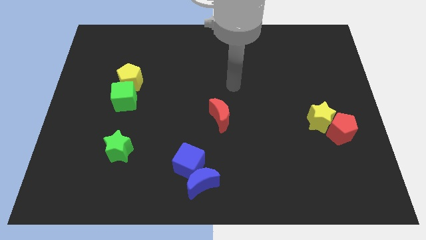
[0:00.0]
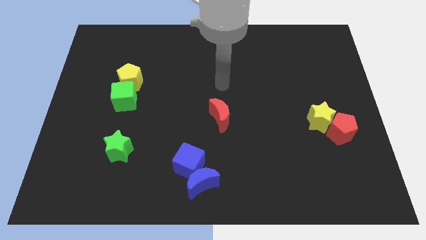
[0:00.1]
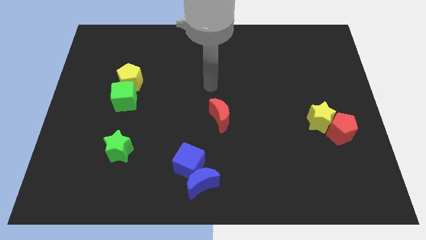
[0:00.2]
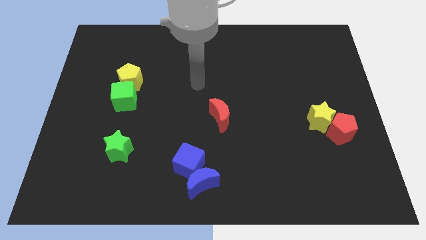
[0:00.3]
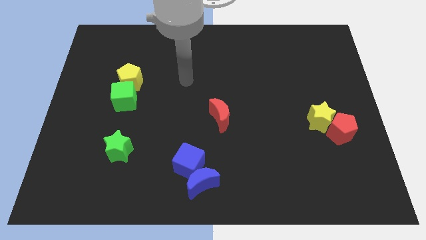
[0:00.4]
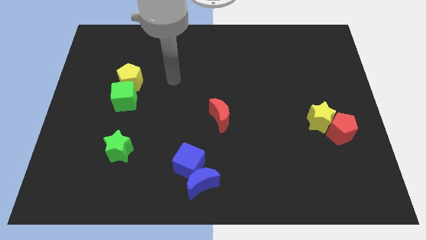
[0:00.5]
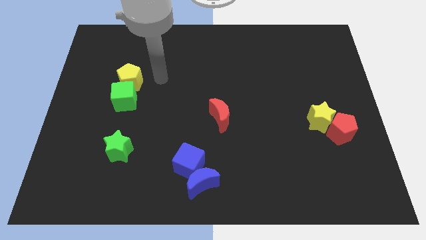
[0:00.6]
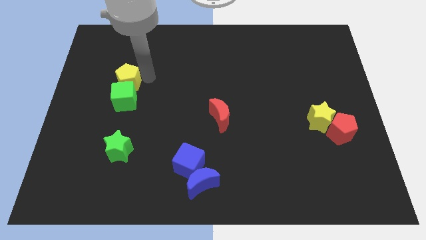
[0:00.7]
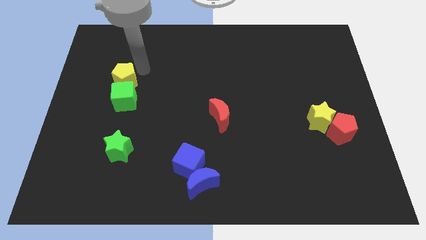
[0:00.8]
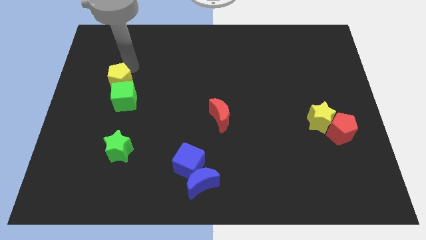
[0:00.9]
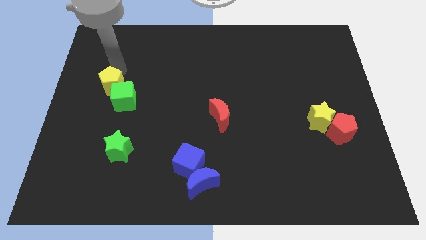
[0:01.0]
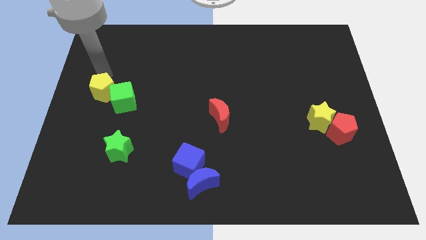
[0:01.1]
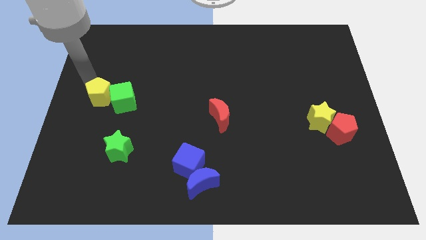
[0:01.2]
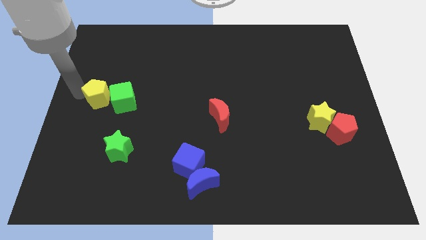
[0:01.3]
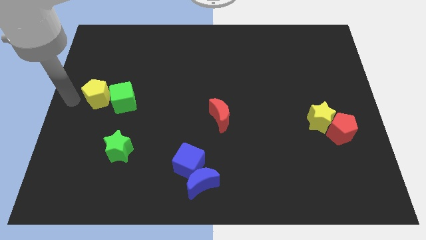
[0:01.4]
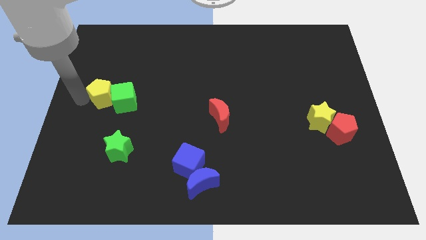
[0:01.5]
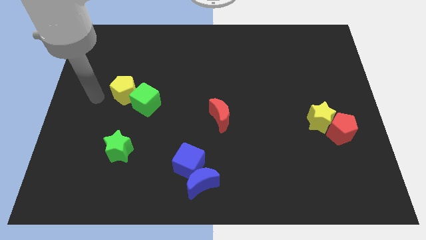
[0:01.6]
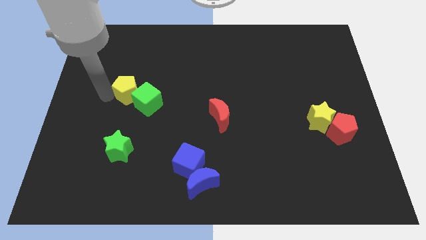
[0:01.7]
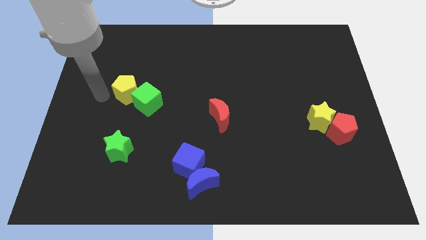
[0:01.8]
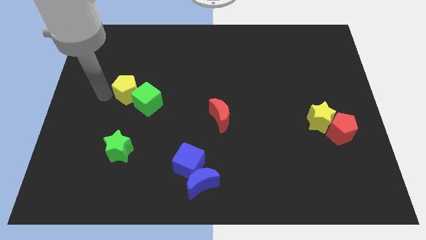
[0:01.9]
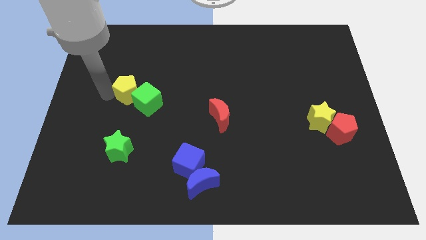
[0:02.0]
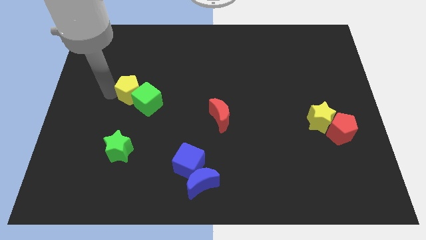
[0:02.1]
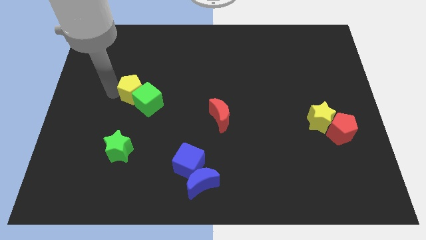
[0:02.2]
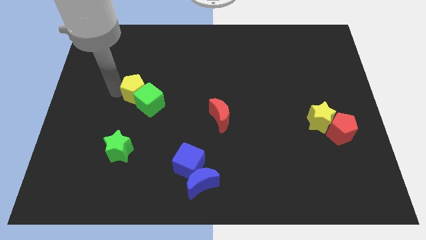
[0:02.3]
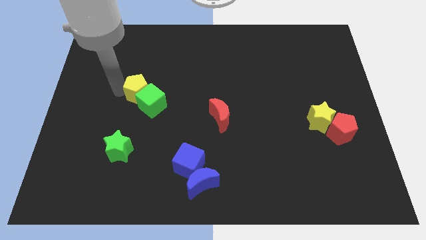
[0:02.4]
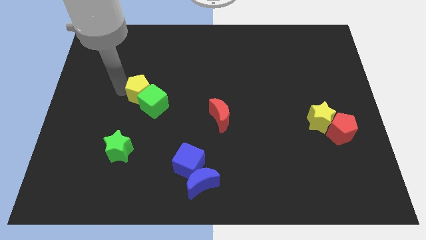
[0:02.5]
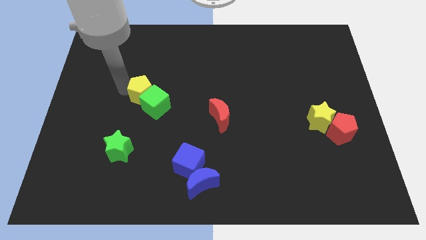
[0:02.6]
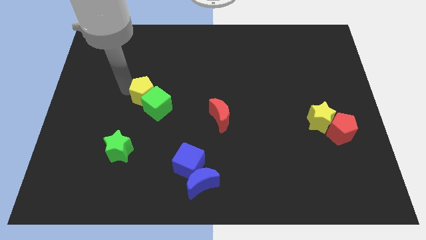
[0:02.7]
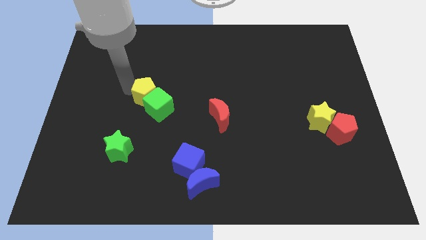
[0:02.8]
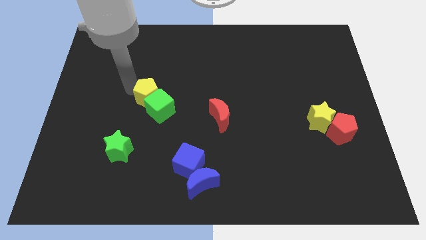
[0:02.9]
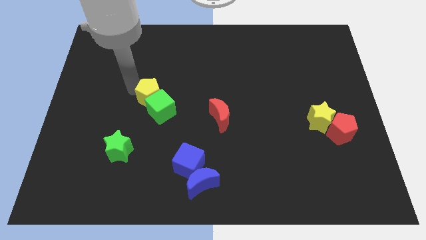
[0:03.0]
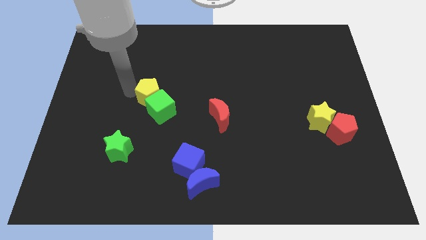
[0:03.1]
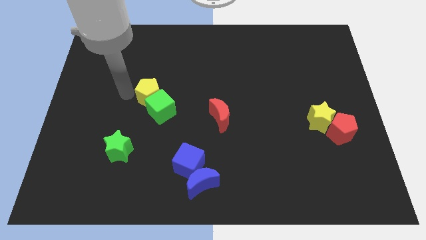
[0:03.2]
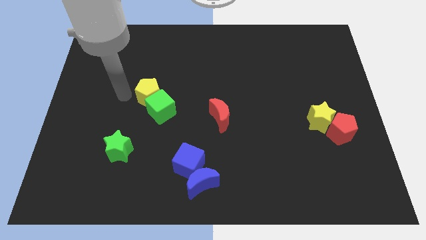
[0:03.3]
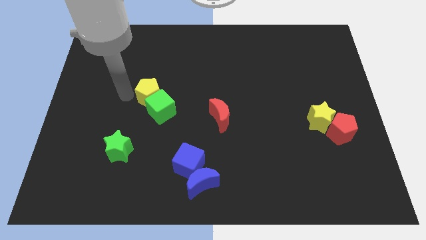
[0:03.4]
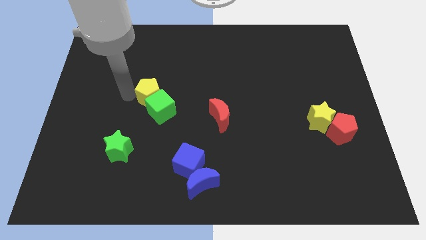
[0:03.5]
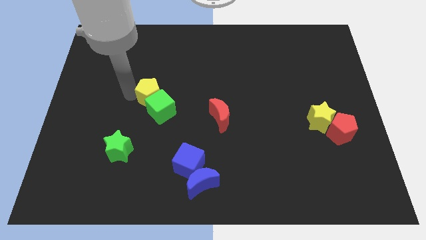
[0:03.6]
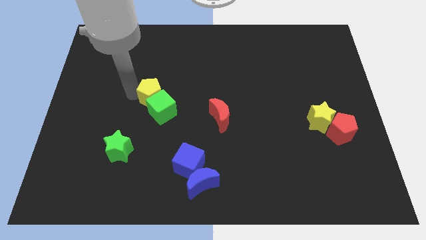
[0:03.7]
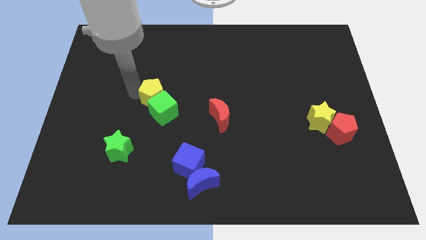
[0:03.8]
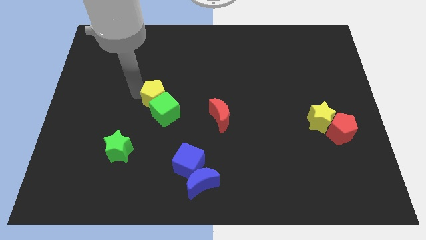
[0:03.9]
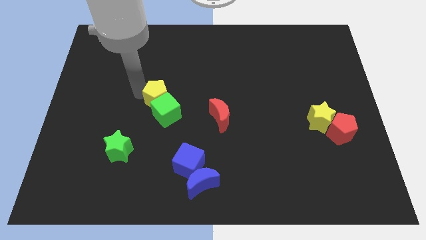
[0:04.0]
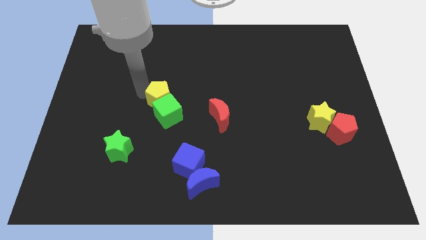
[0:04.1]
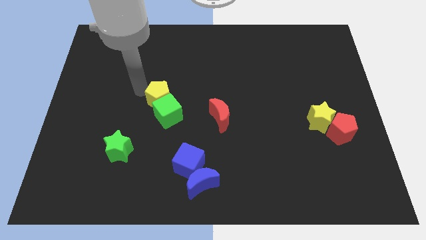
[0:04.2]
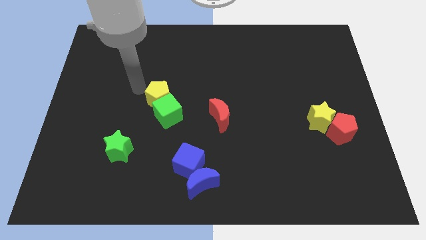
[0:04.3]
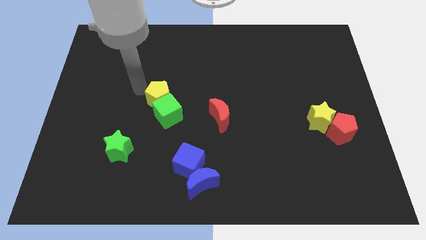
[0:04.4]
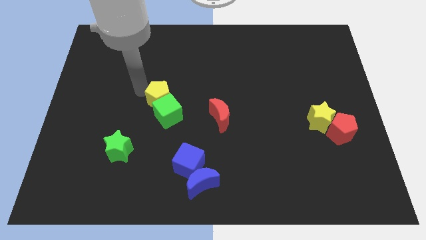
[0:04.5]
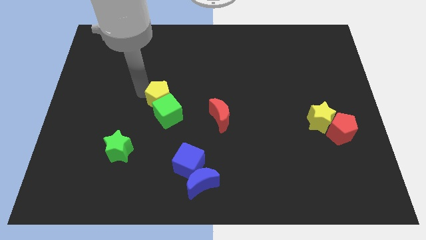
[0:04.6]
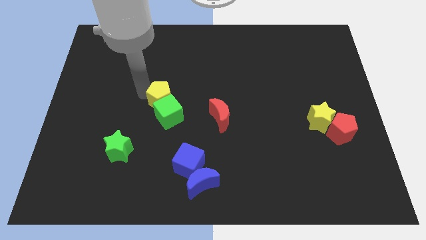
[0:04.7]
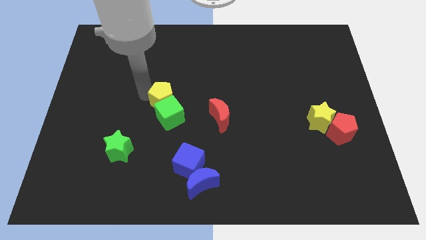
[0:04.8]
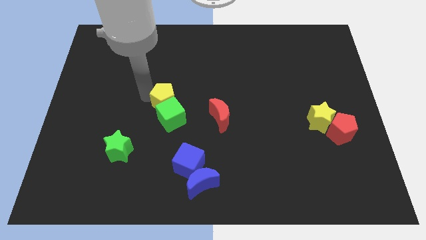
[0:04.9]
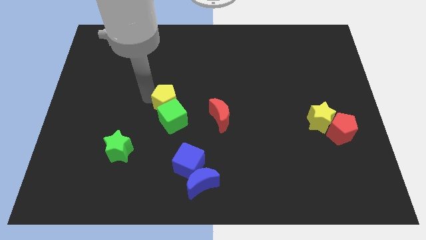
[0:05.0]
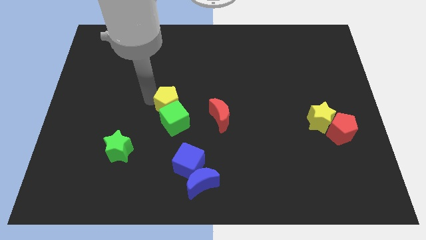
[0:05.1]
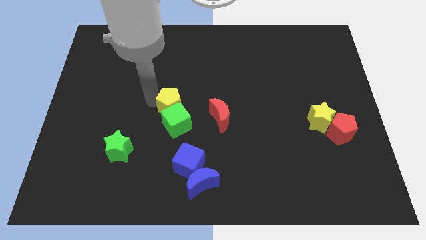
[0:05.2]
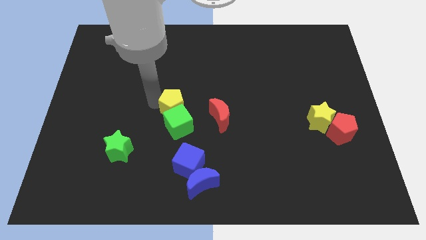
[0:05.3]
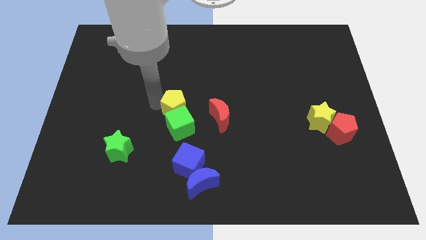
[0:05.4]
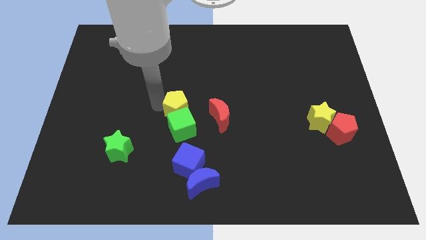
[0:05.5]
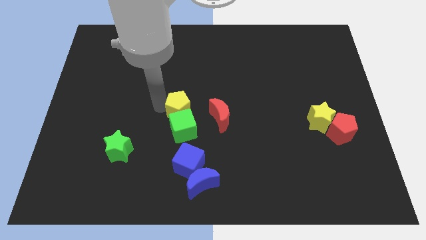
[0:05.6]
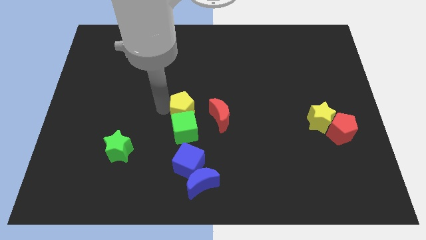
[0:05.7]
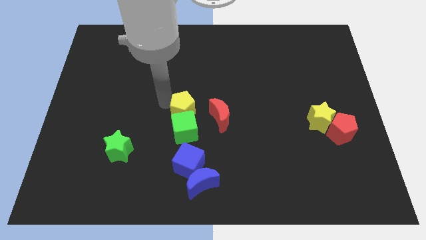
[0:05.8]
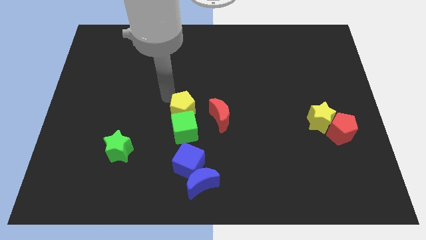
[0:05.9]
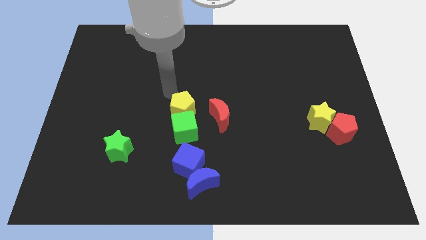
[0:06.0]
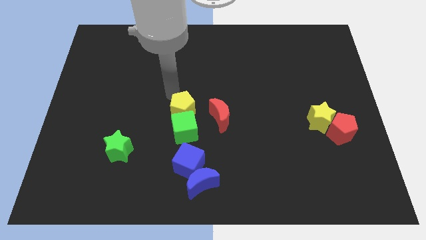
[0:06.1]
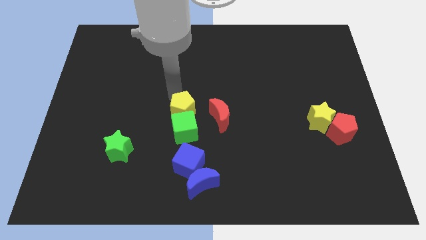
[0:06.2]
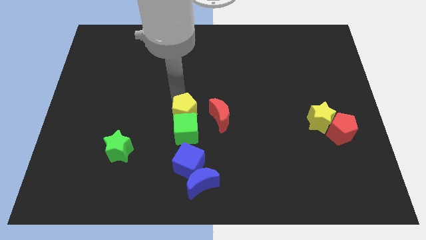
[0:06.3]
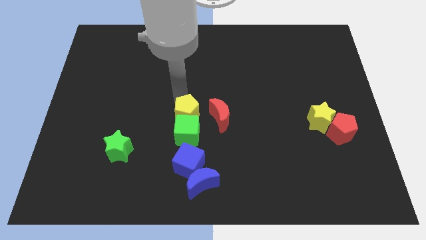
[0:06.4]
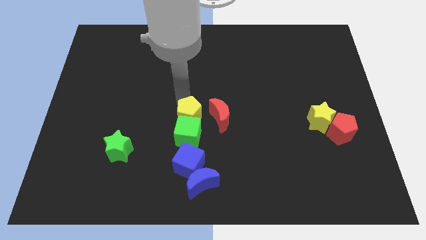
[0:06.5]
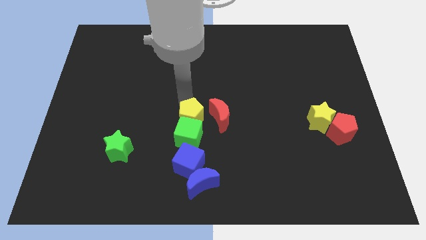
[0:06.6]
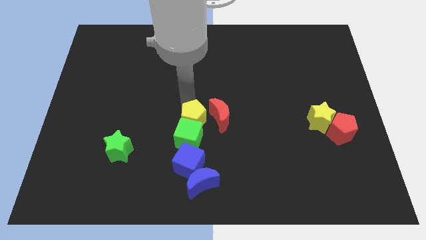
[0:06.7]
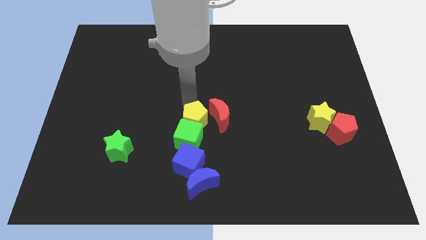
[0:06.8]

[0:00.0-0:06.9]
move the yellow pentagon down and right

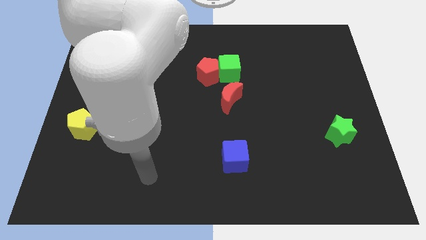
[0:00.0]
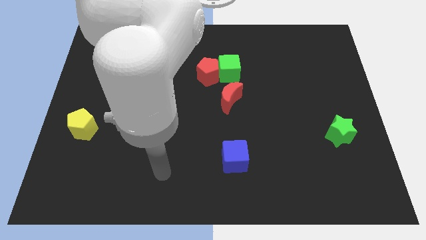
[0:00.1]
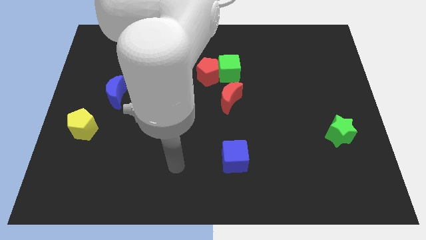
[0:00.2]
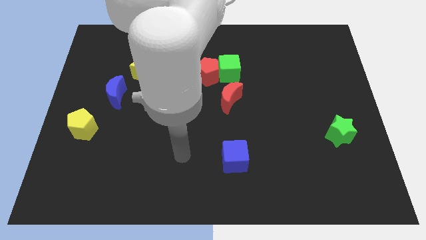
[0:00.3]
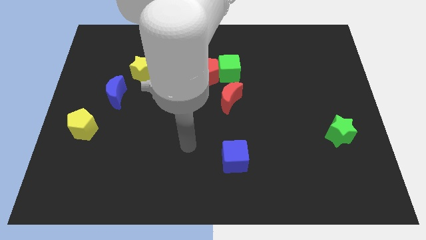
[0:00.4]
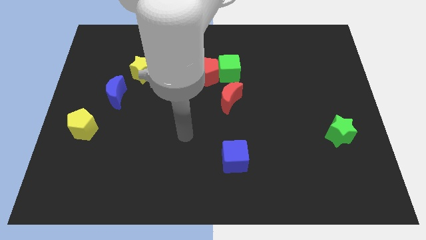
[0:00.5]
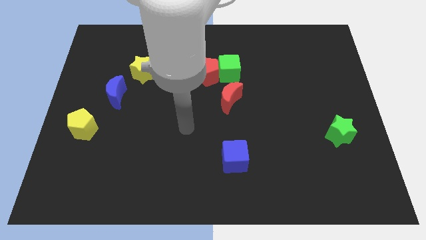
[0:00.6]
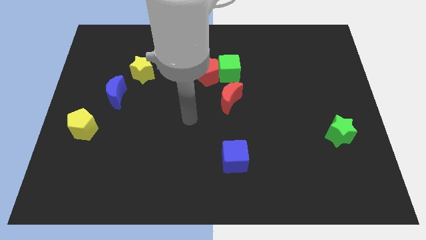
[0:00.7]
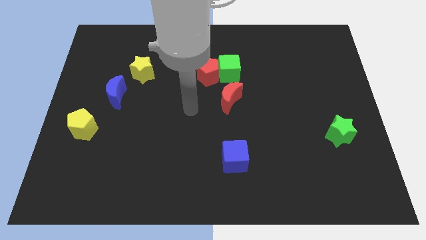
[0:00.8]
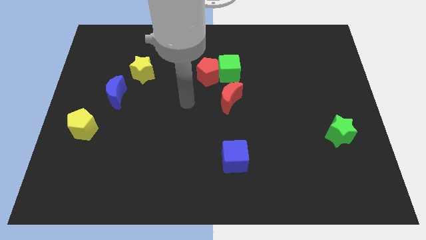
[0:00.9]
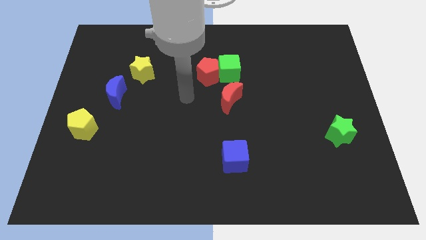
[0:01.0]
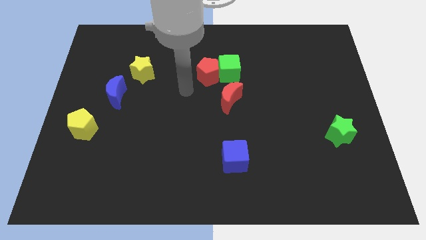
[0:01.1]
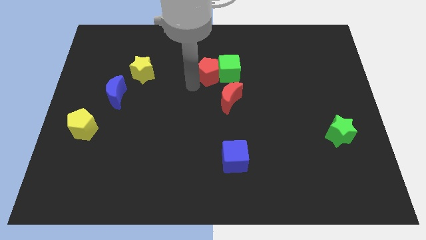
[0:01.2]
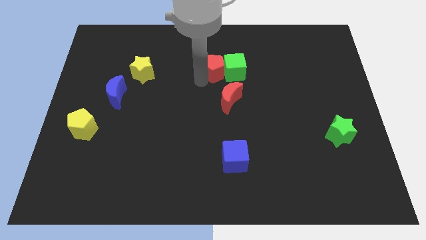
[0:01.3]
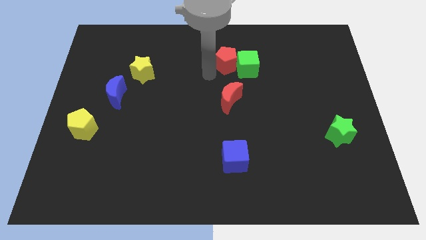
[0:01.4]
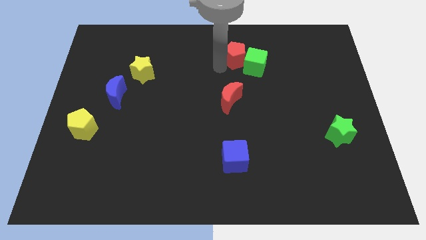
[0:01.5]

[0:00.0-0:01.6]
slightly move the green cube right
